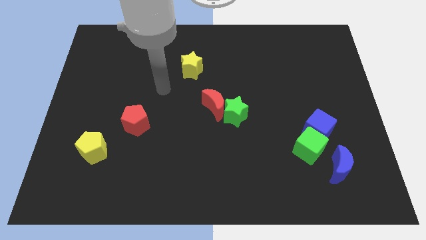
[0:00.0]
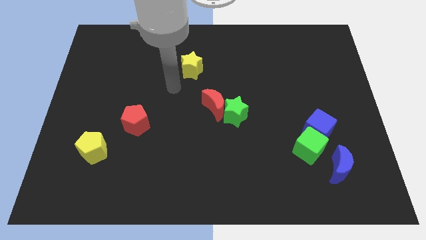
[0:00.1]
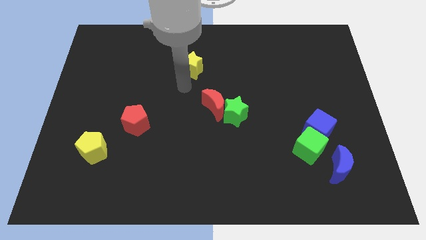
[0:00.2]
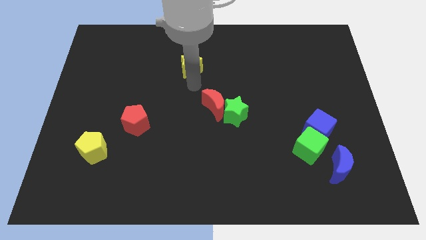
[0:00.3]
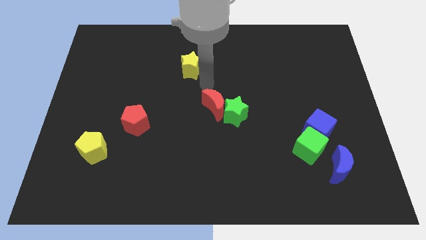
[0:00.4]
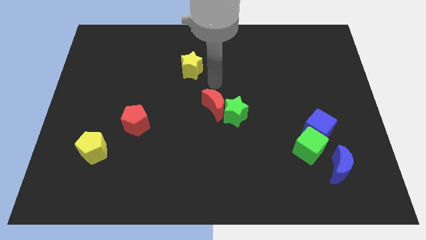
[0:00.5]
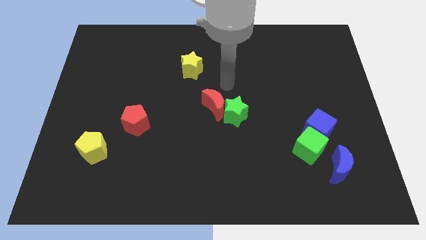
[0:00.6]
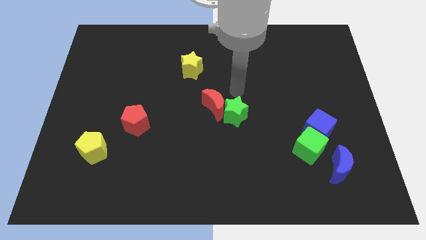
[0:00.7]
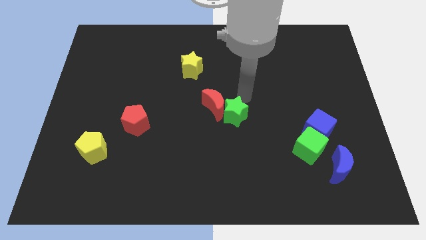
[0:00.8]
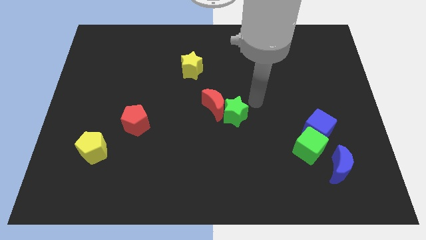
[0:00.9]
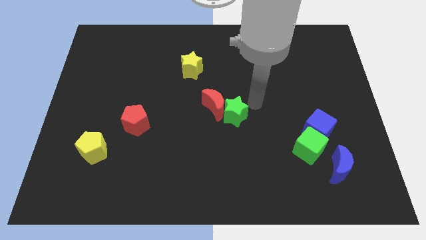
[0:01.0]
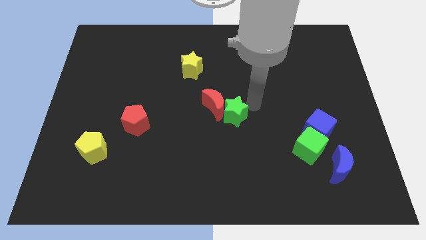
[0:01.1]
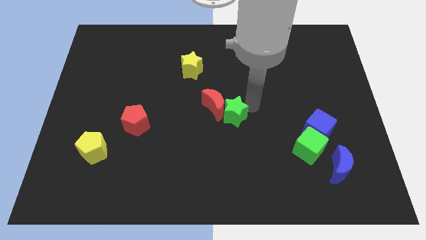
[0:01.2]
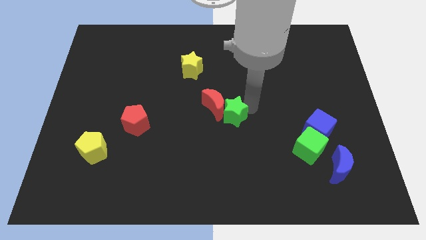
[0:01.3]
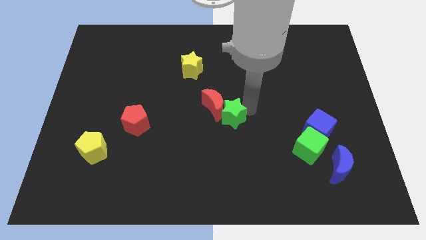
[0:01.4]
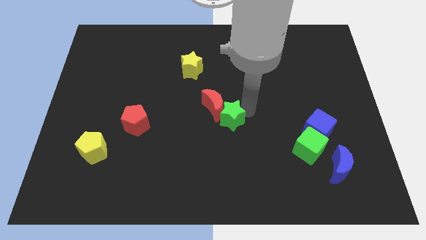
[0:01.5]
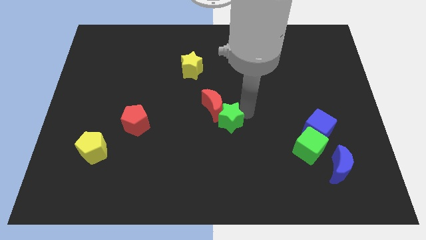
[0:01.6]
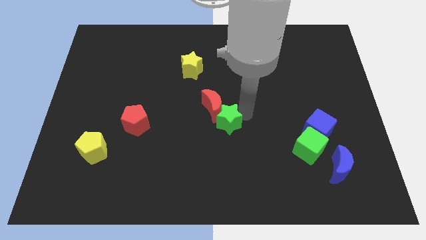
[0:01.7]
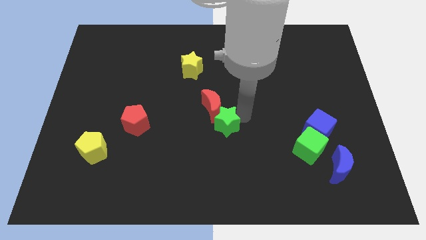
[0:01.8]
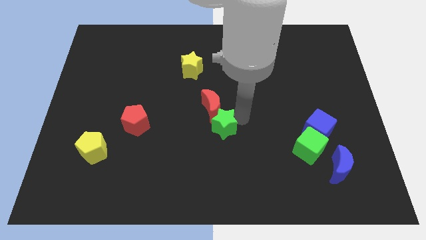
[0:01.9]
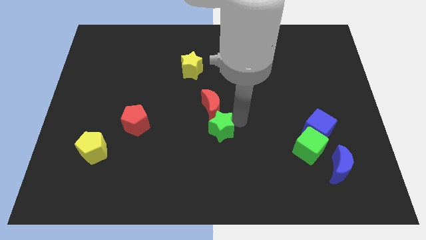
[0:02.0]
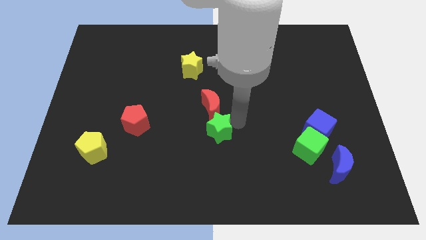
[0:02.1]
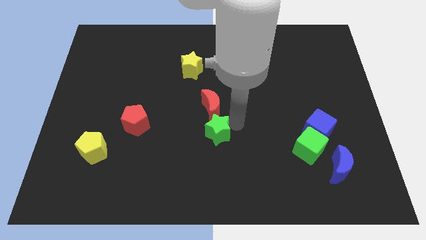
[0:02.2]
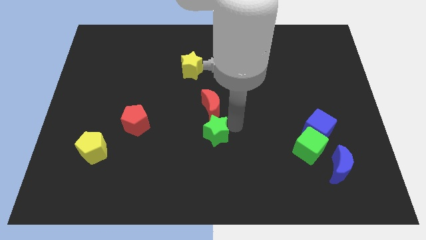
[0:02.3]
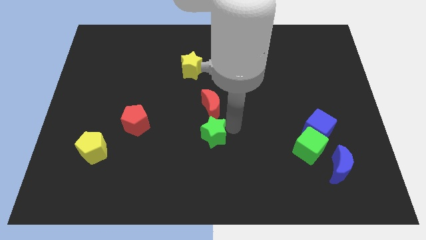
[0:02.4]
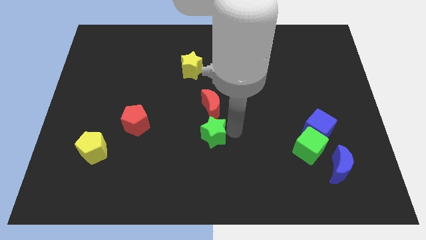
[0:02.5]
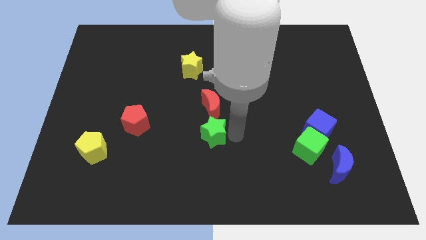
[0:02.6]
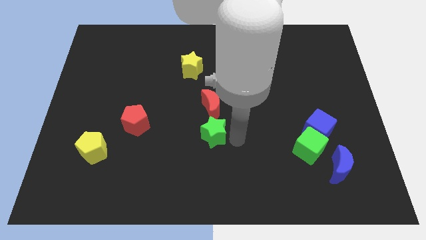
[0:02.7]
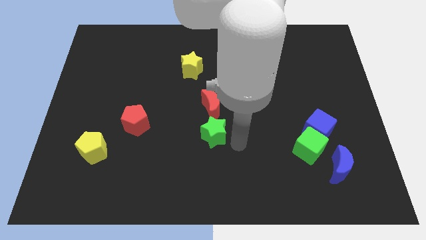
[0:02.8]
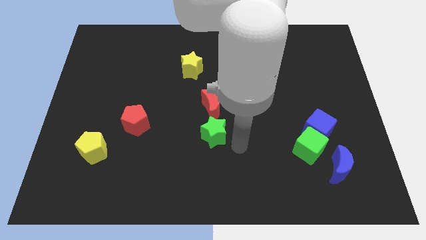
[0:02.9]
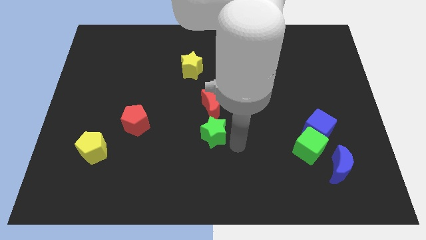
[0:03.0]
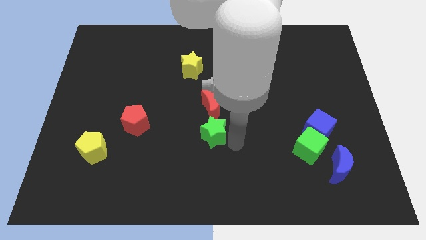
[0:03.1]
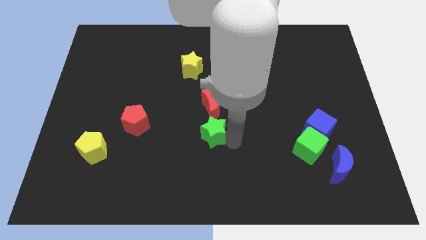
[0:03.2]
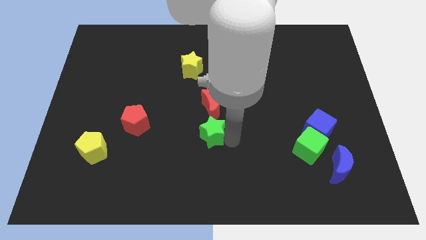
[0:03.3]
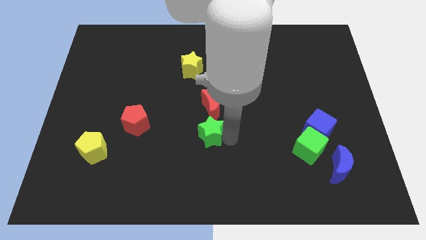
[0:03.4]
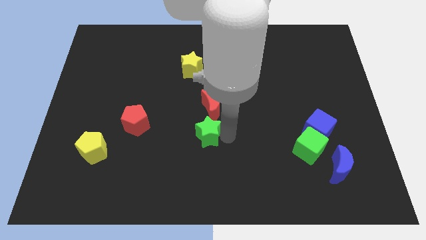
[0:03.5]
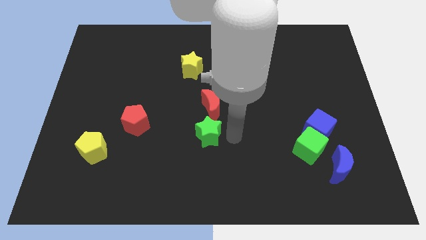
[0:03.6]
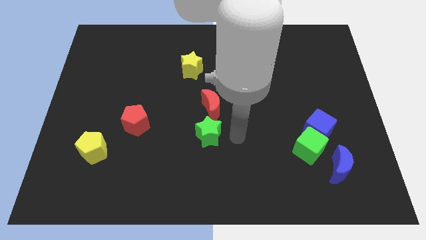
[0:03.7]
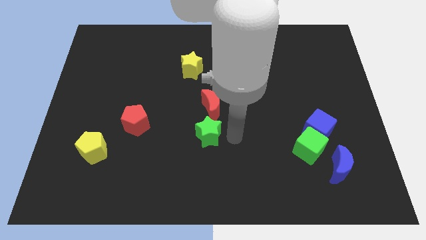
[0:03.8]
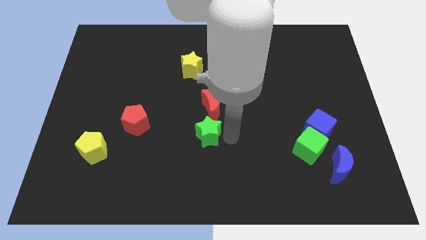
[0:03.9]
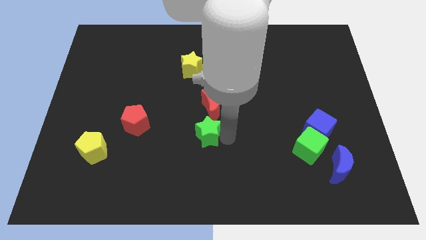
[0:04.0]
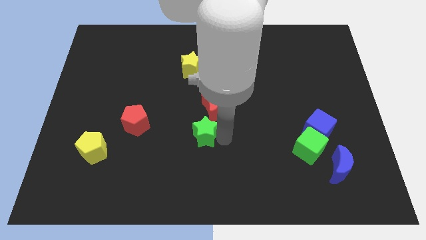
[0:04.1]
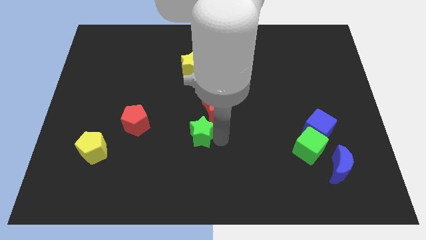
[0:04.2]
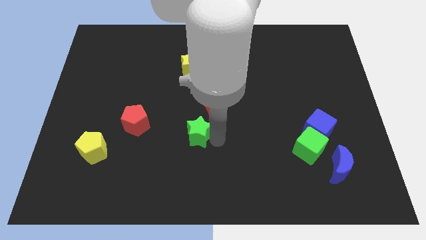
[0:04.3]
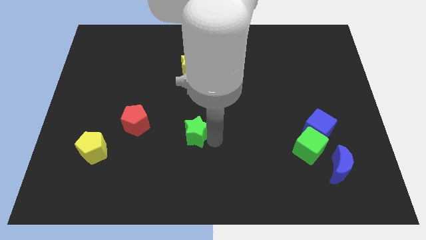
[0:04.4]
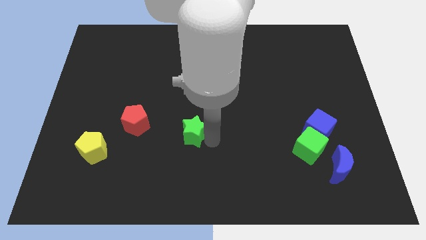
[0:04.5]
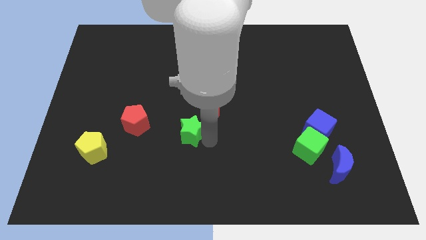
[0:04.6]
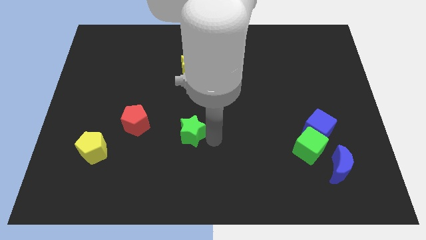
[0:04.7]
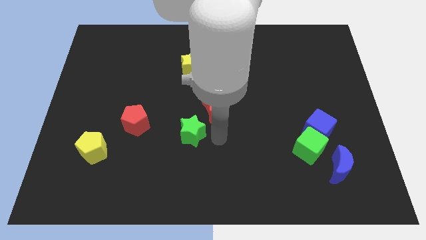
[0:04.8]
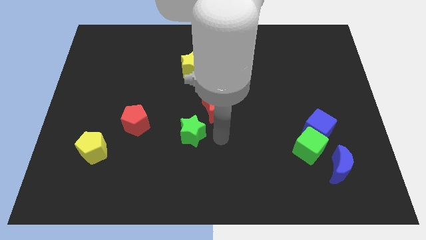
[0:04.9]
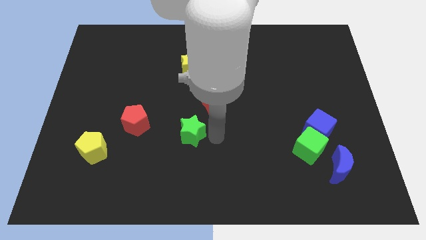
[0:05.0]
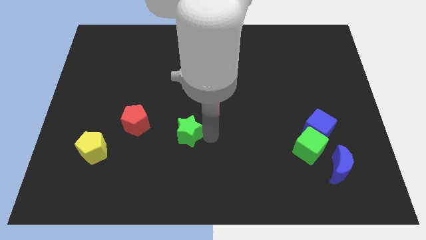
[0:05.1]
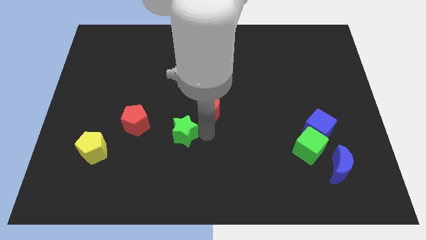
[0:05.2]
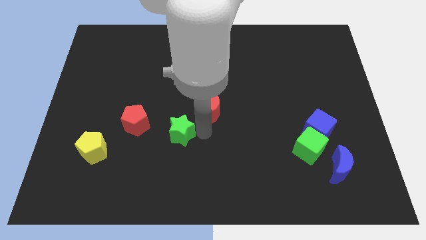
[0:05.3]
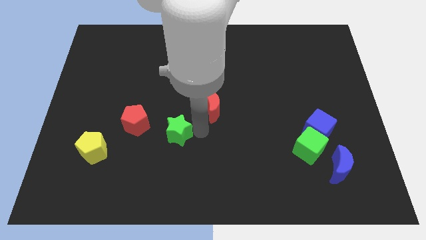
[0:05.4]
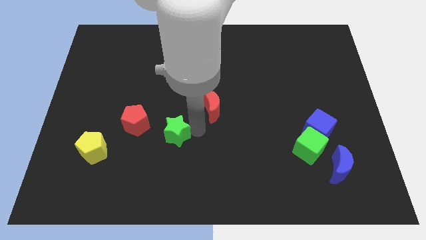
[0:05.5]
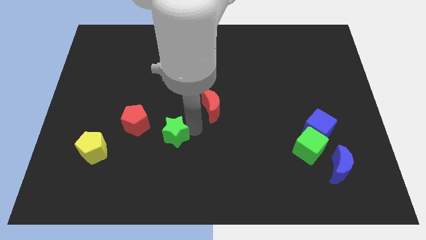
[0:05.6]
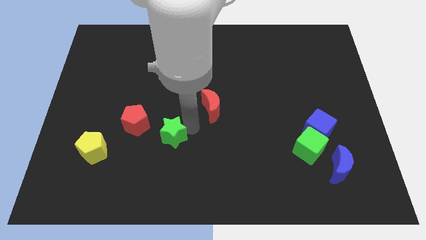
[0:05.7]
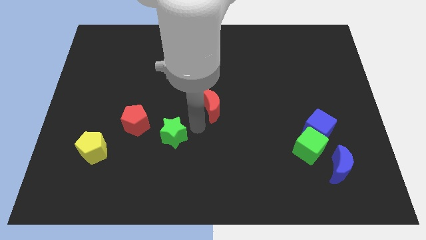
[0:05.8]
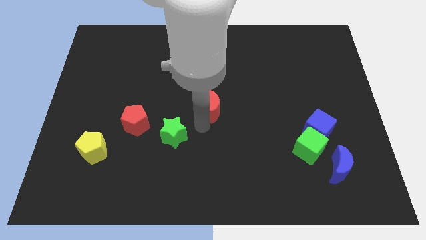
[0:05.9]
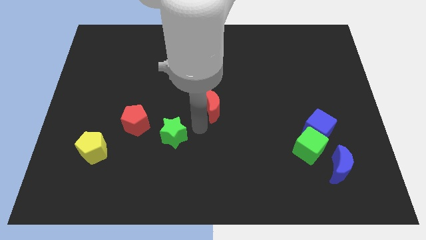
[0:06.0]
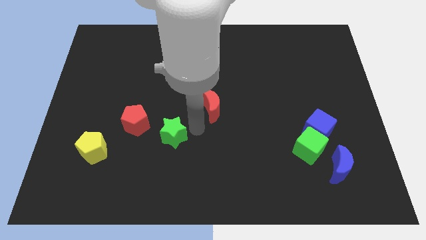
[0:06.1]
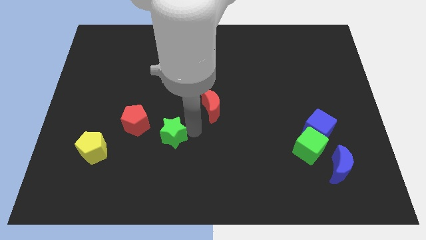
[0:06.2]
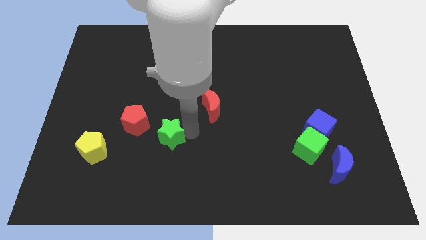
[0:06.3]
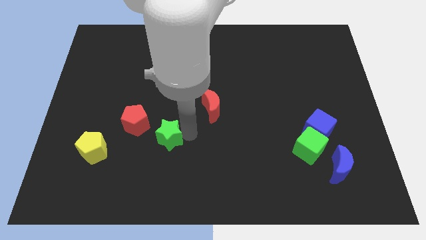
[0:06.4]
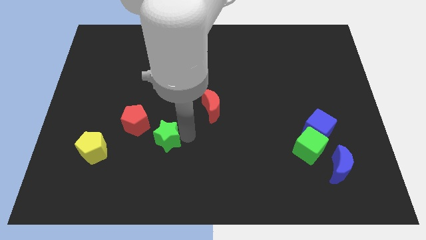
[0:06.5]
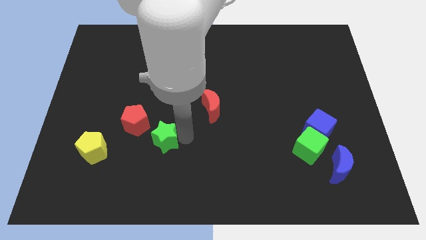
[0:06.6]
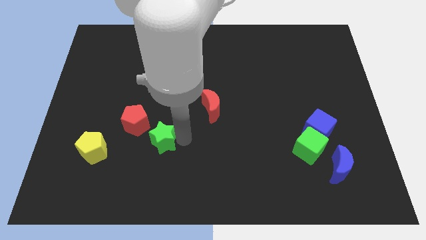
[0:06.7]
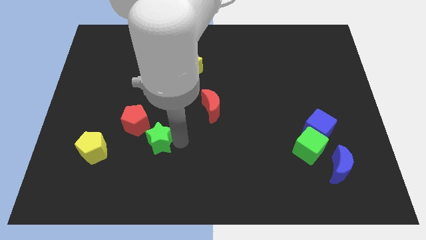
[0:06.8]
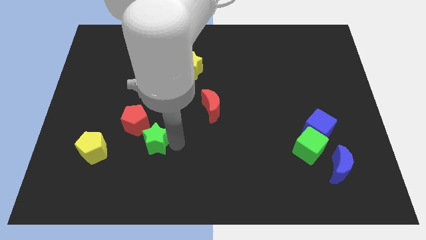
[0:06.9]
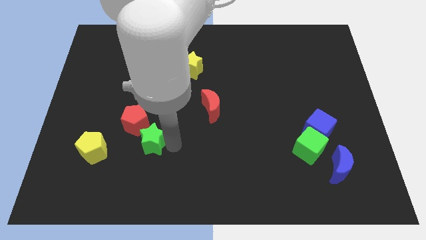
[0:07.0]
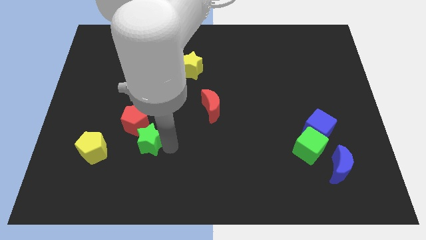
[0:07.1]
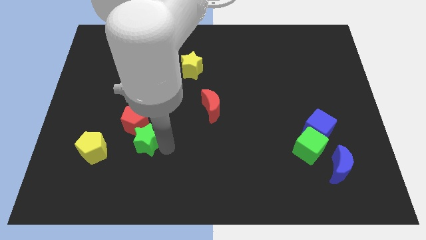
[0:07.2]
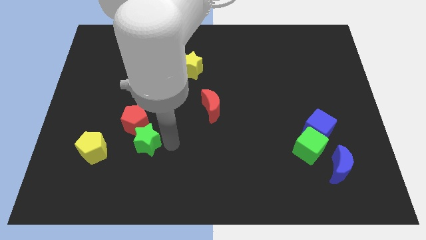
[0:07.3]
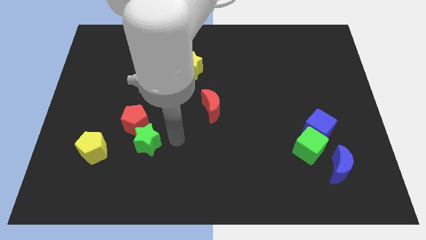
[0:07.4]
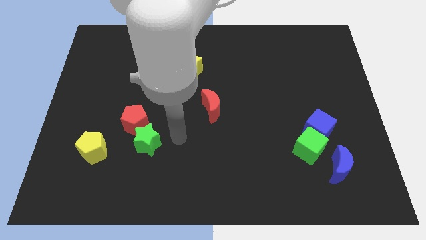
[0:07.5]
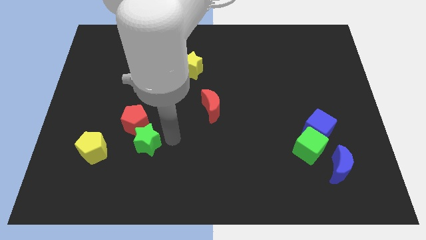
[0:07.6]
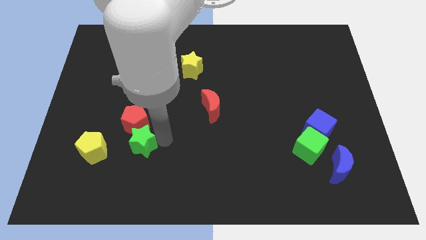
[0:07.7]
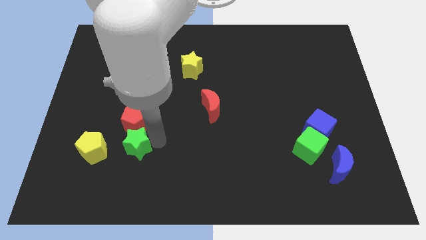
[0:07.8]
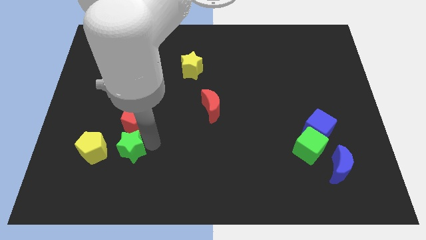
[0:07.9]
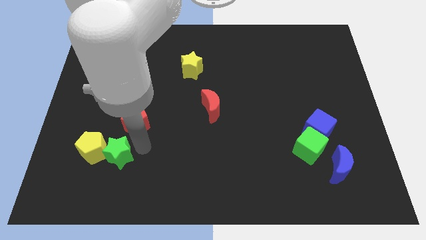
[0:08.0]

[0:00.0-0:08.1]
slide the green star close to the yellow pentagon
